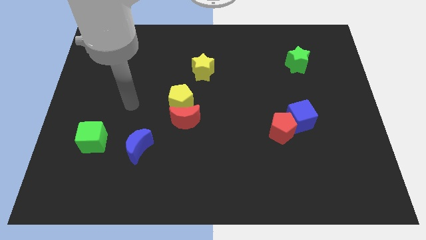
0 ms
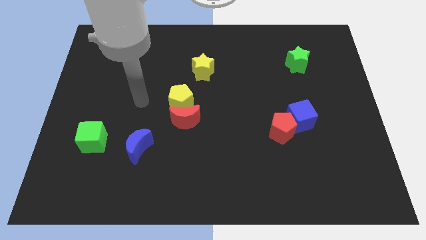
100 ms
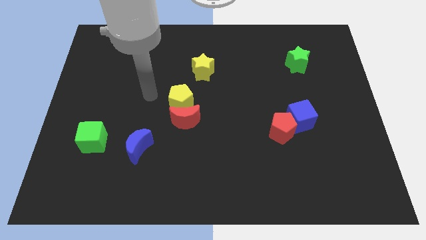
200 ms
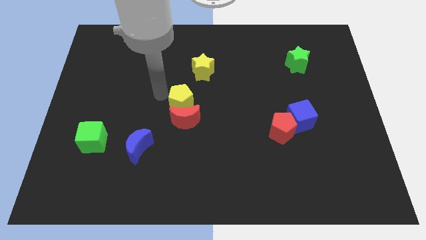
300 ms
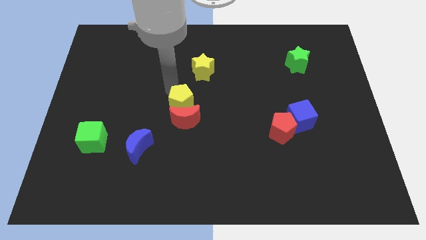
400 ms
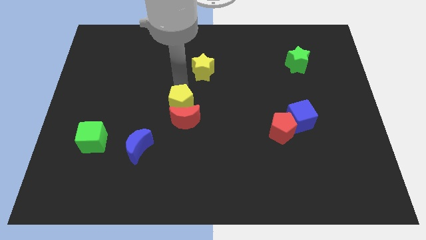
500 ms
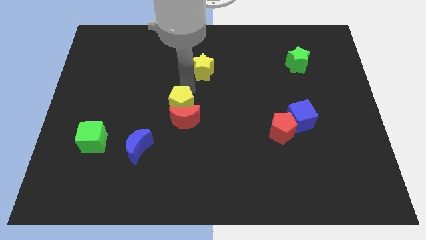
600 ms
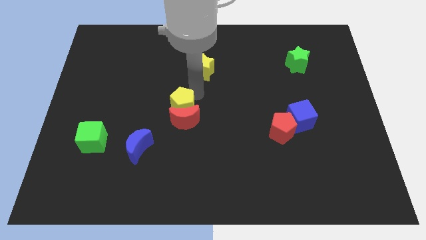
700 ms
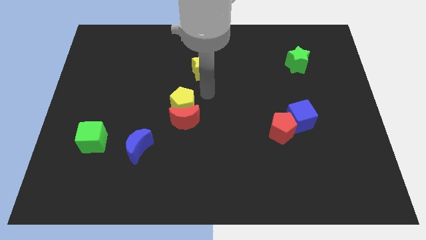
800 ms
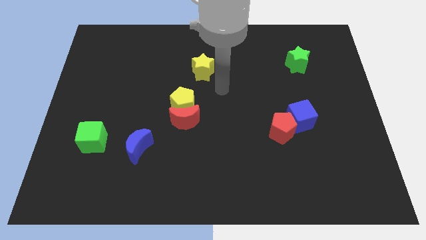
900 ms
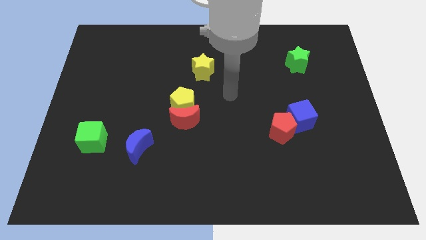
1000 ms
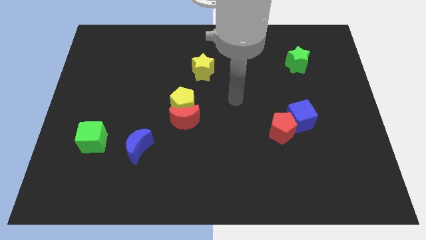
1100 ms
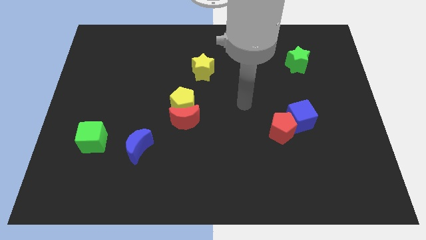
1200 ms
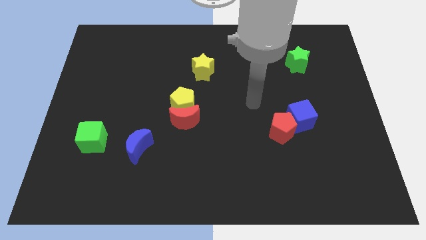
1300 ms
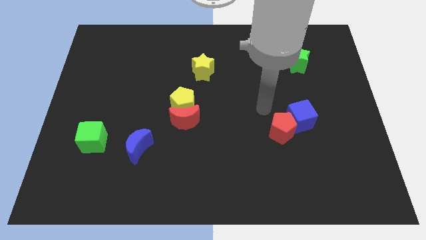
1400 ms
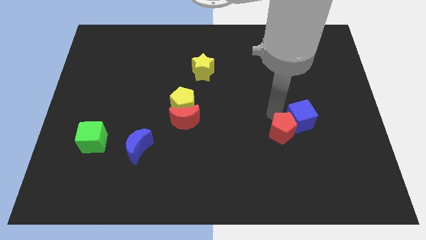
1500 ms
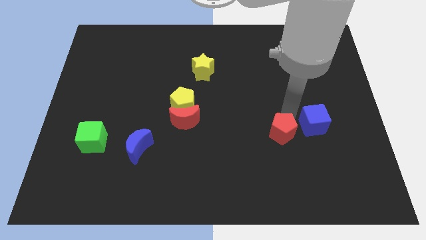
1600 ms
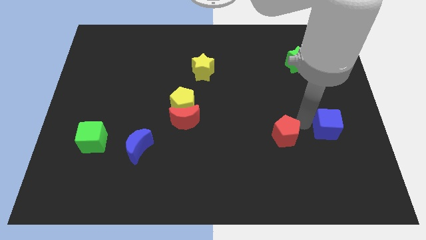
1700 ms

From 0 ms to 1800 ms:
separate the red pentagon from the blue cube

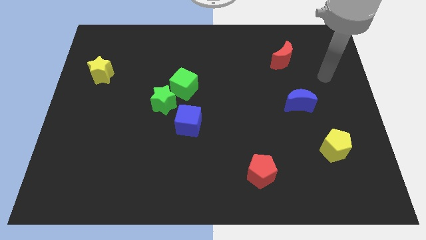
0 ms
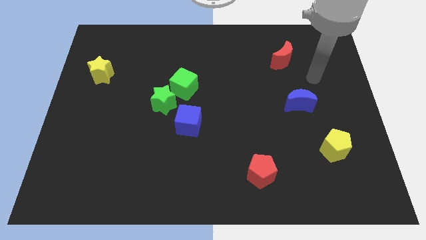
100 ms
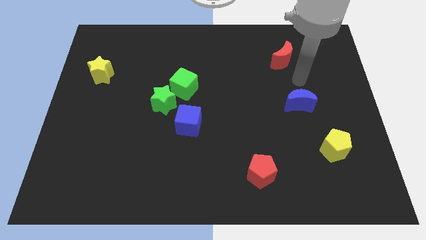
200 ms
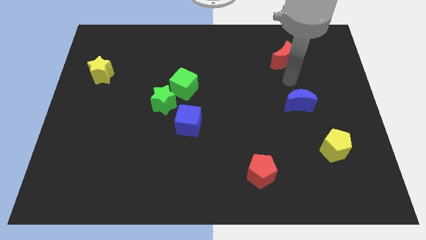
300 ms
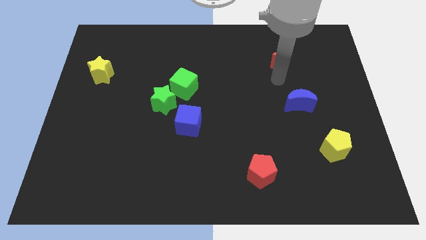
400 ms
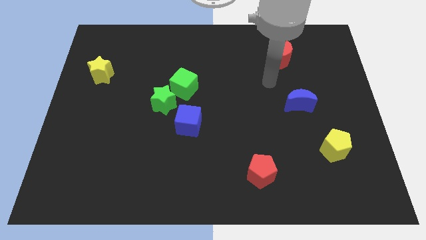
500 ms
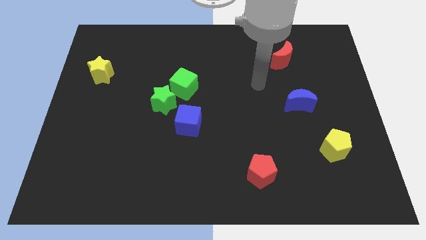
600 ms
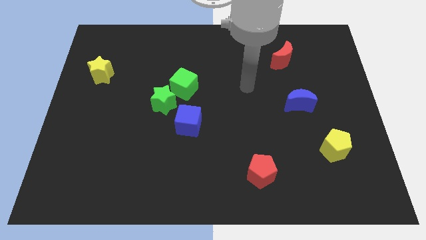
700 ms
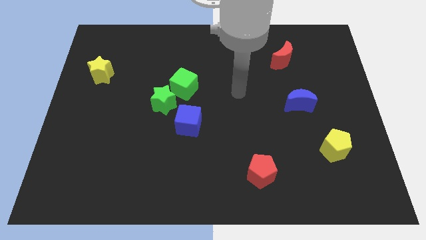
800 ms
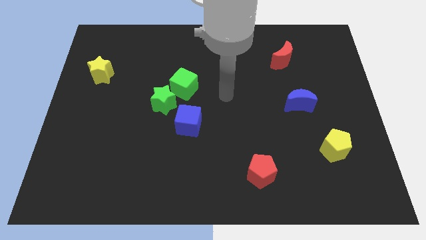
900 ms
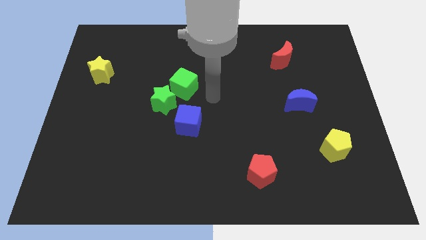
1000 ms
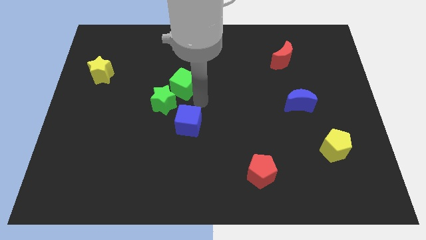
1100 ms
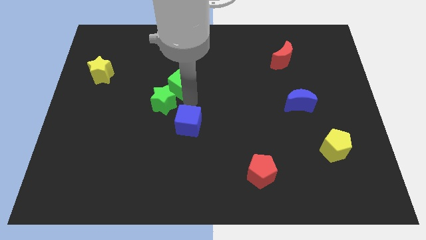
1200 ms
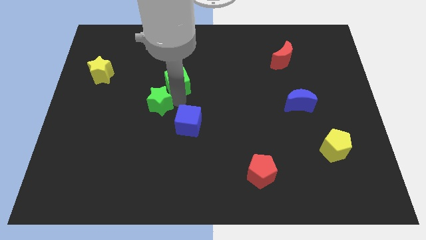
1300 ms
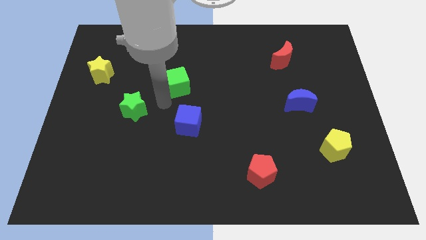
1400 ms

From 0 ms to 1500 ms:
move the green cube away from the green star

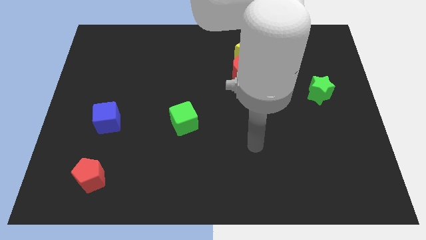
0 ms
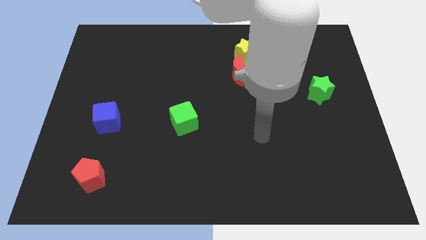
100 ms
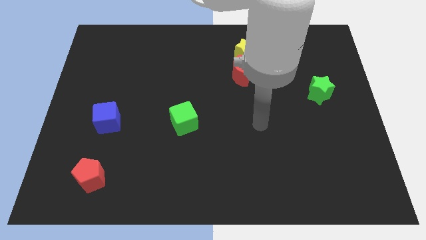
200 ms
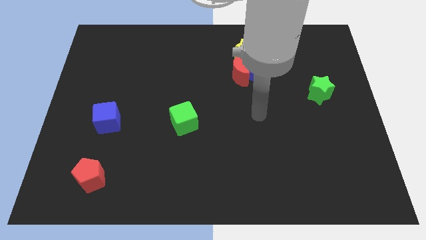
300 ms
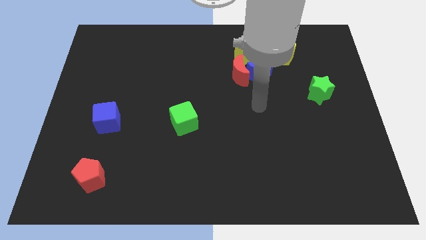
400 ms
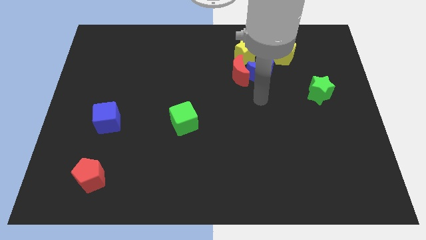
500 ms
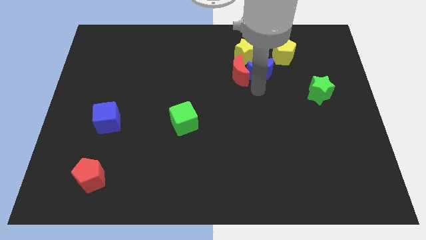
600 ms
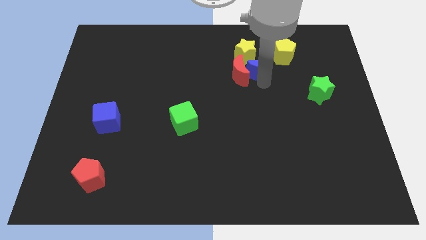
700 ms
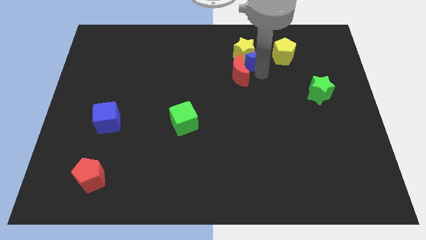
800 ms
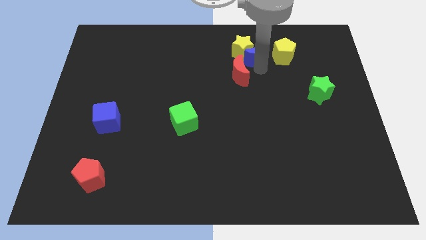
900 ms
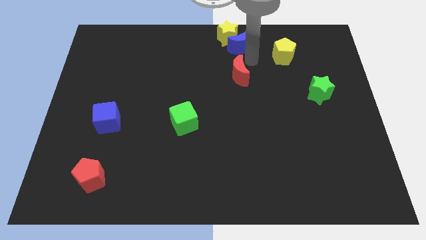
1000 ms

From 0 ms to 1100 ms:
move the red moon away from the blue moon and yellow star

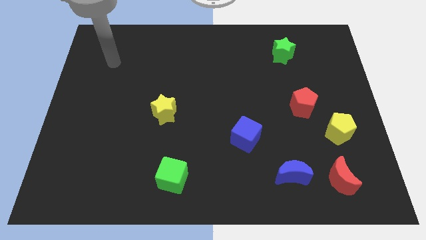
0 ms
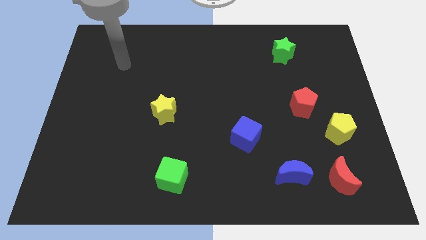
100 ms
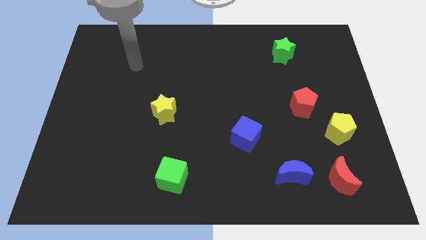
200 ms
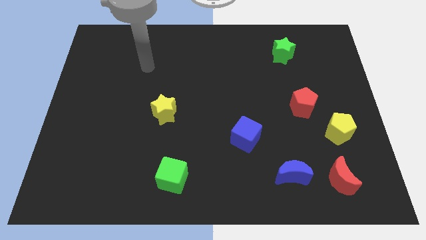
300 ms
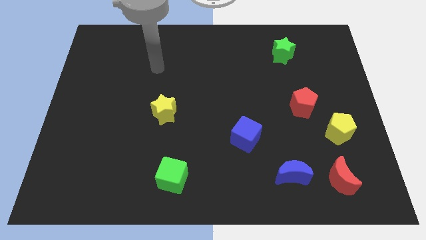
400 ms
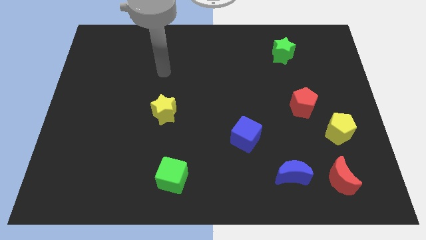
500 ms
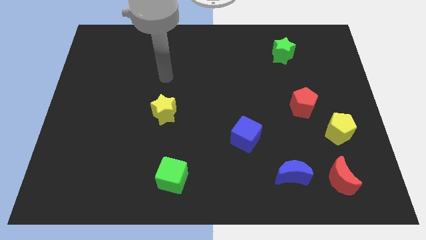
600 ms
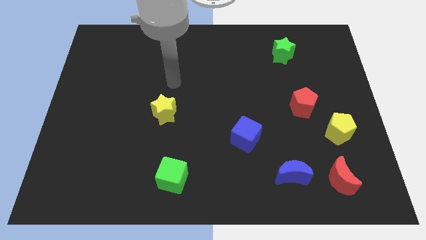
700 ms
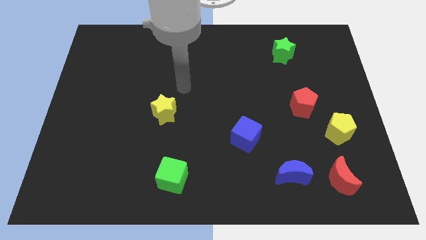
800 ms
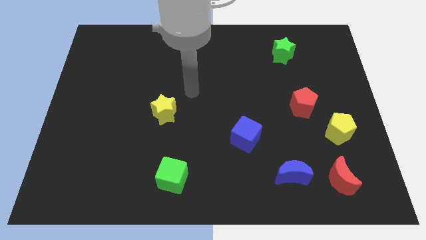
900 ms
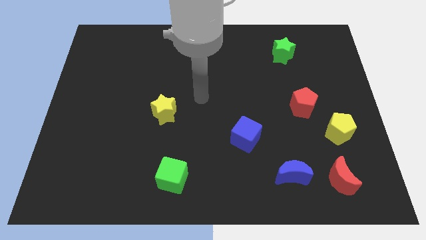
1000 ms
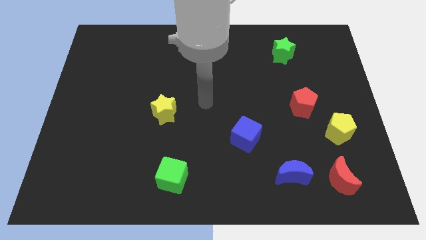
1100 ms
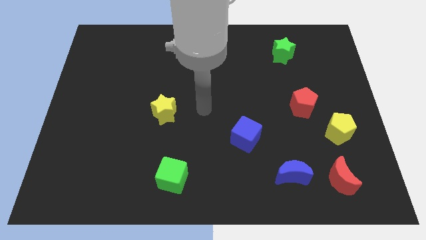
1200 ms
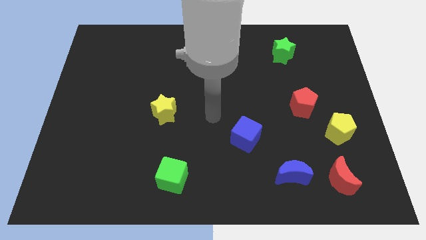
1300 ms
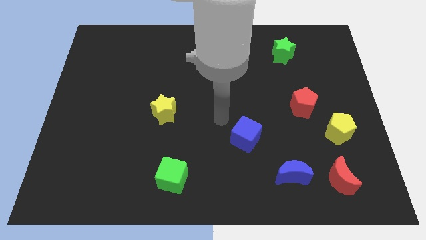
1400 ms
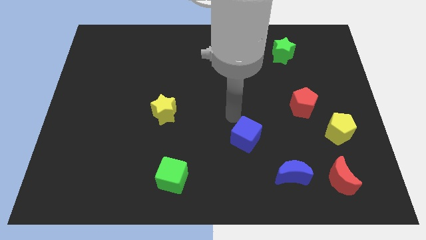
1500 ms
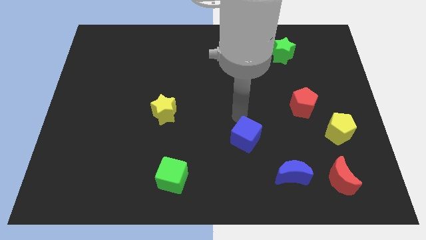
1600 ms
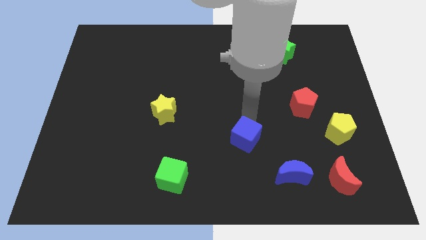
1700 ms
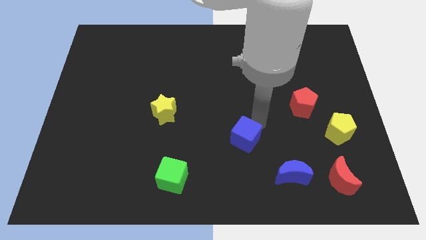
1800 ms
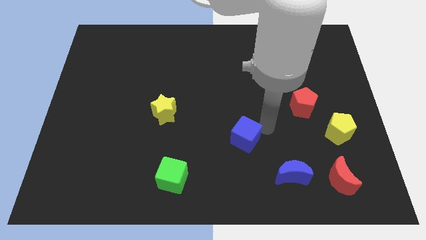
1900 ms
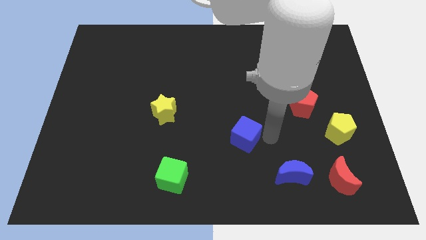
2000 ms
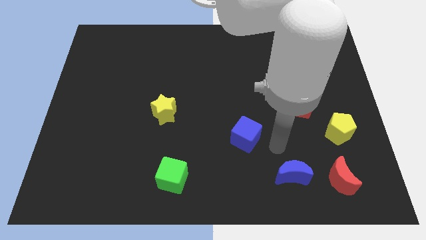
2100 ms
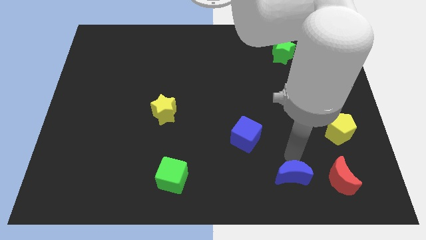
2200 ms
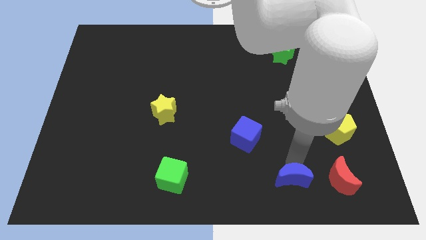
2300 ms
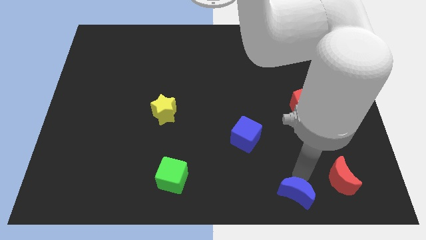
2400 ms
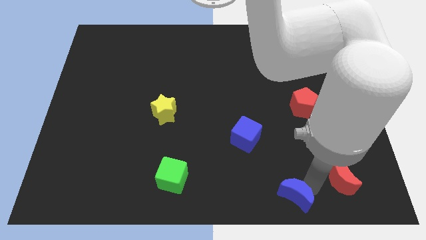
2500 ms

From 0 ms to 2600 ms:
separate the red moon from the blue moon

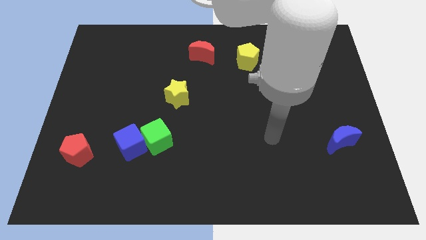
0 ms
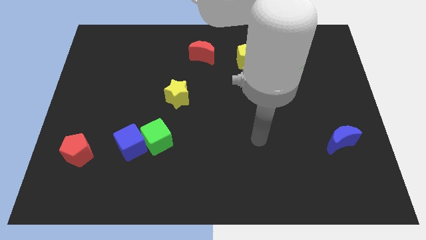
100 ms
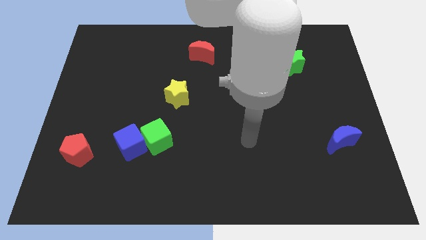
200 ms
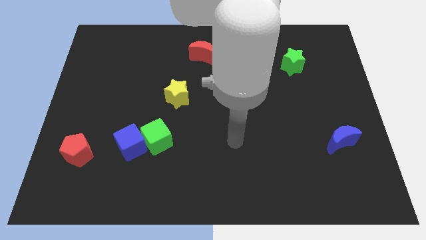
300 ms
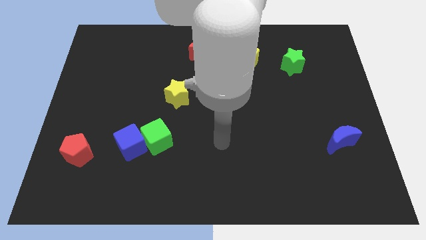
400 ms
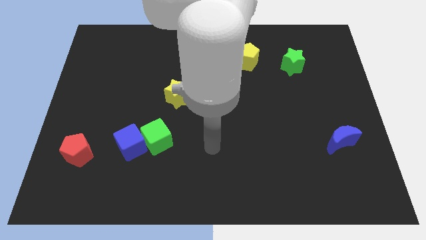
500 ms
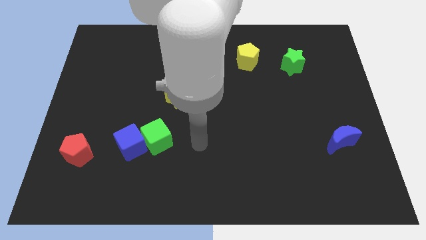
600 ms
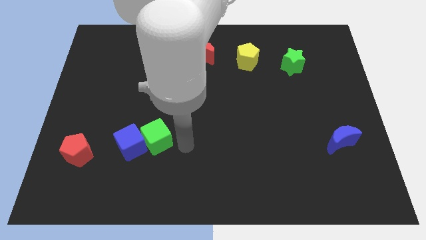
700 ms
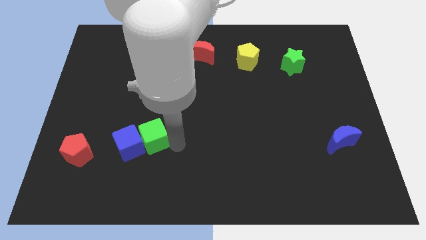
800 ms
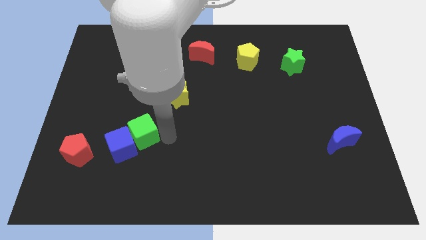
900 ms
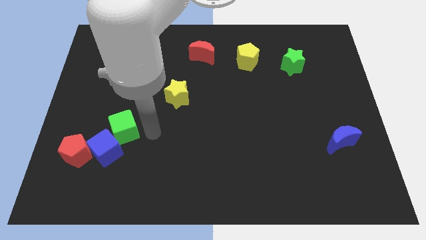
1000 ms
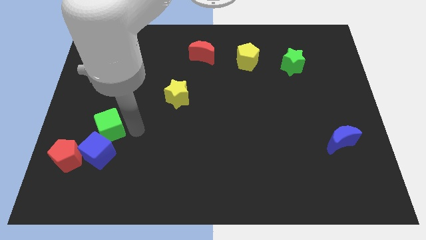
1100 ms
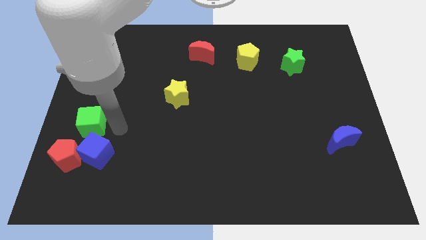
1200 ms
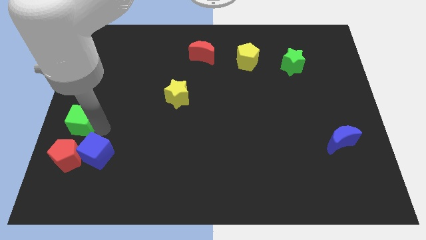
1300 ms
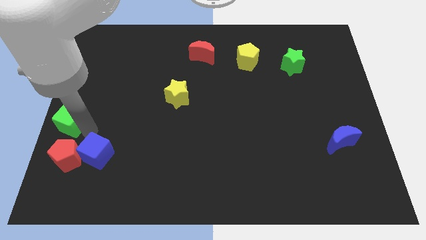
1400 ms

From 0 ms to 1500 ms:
move the blue cube away from the green cube

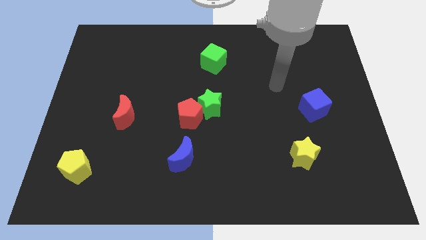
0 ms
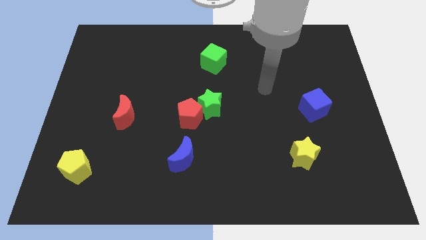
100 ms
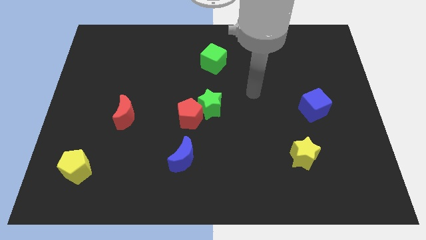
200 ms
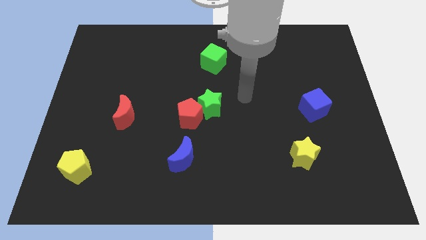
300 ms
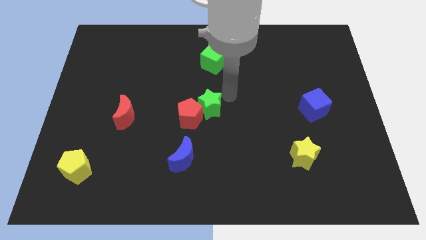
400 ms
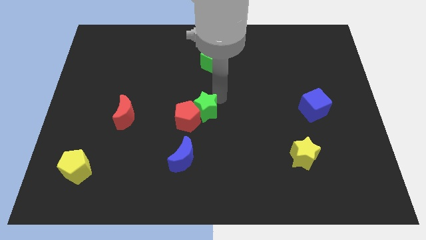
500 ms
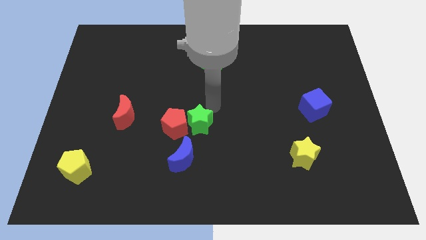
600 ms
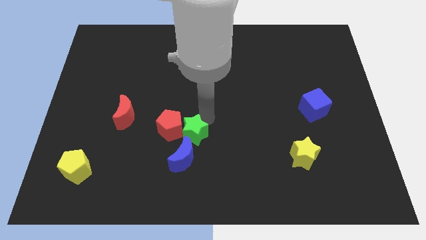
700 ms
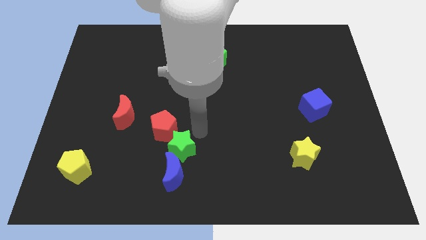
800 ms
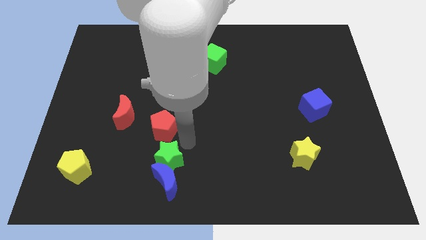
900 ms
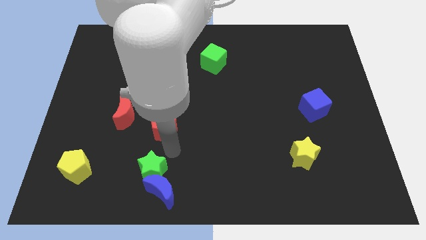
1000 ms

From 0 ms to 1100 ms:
pull the red pentagon apart from the green star
